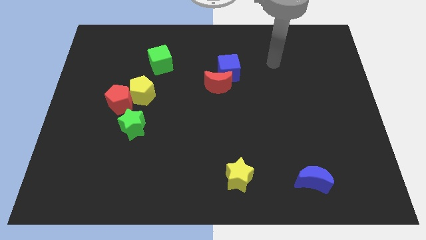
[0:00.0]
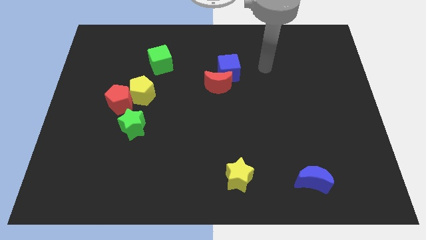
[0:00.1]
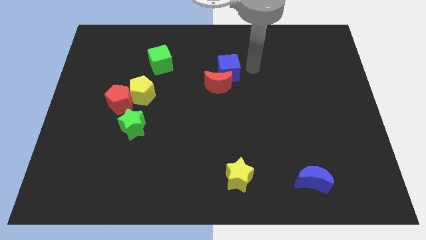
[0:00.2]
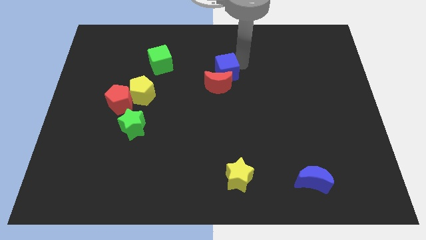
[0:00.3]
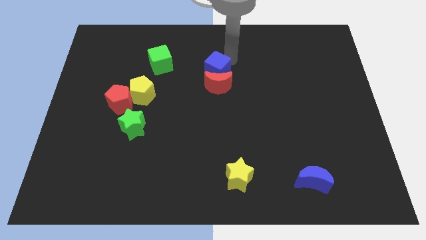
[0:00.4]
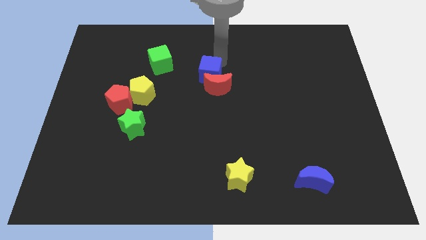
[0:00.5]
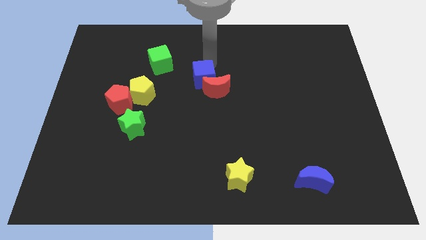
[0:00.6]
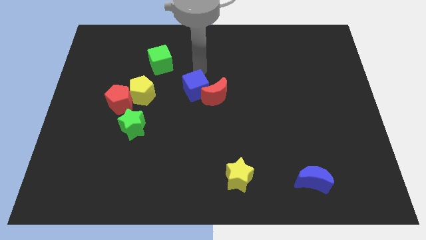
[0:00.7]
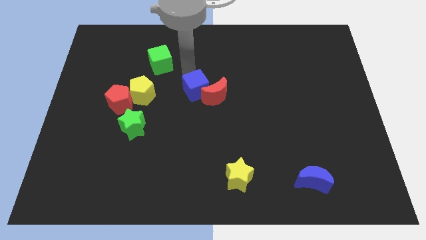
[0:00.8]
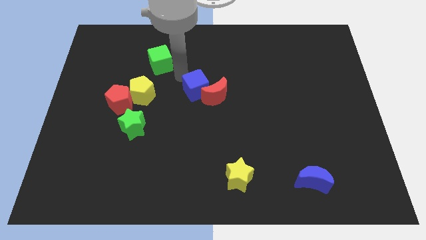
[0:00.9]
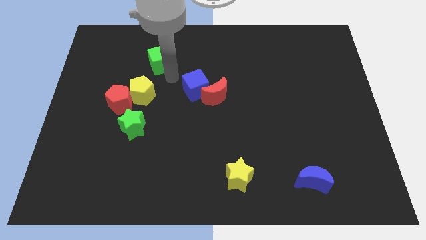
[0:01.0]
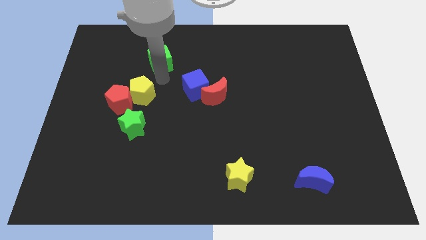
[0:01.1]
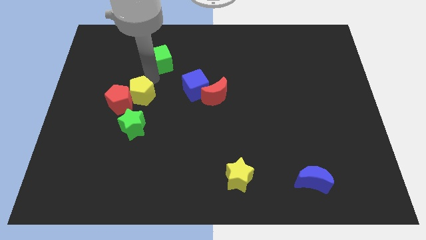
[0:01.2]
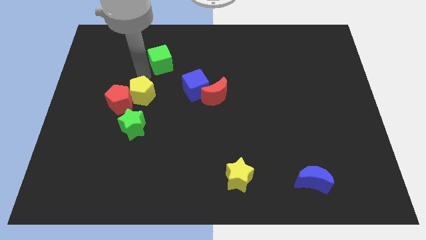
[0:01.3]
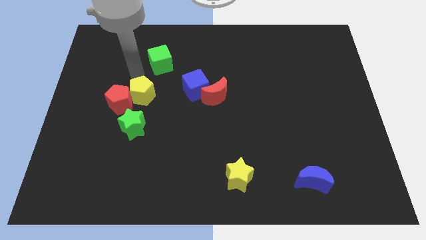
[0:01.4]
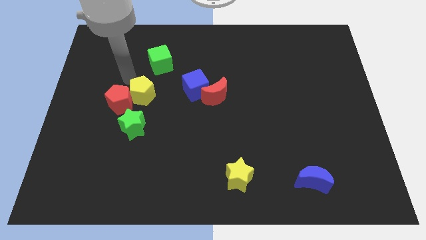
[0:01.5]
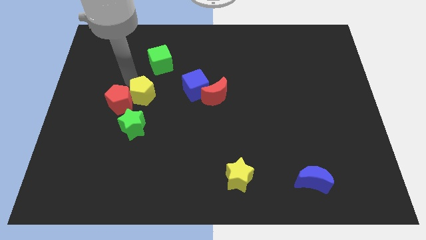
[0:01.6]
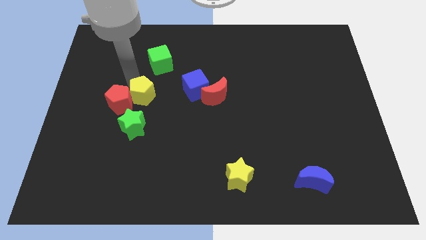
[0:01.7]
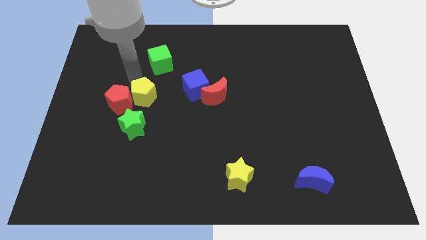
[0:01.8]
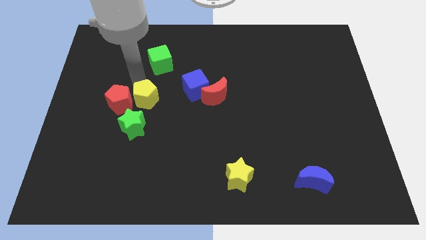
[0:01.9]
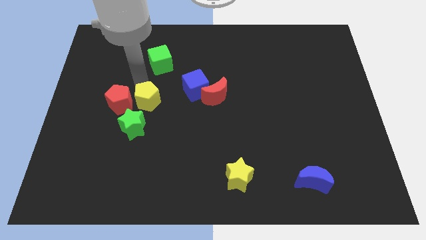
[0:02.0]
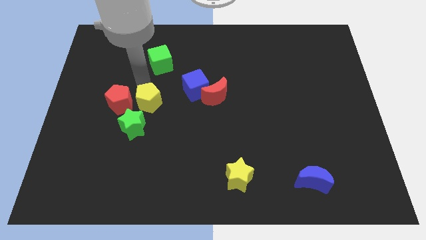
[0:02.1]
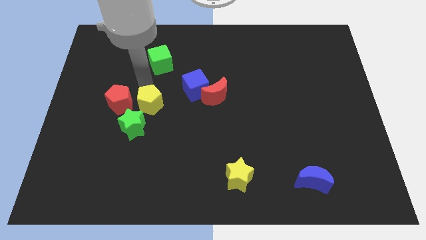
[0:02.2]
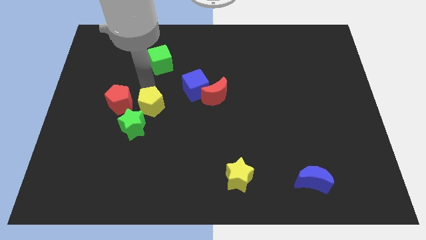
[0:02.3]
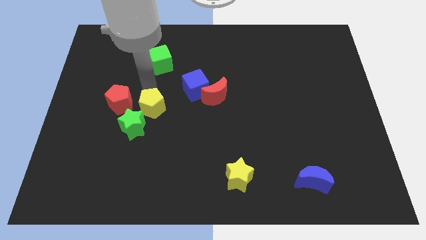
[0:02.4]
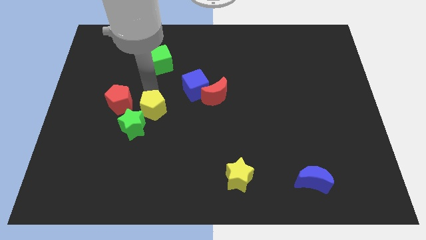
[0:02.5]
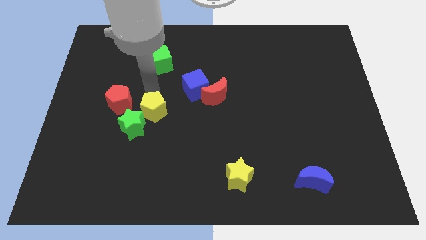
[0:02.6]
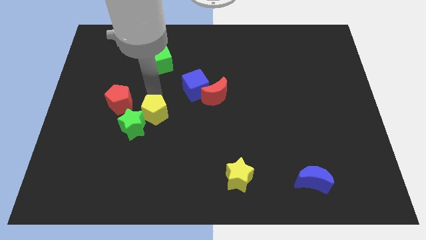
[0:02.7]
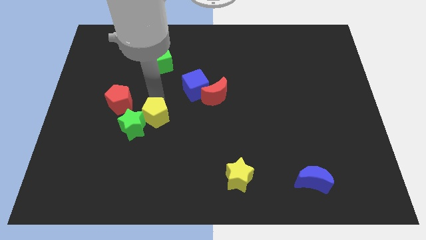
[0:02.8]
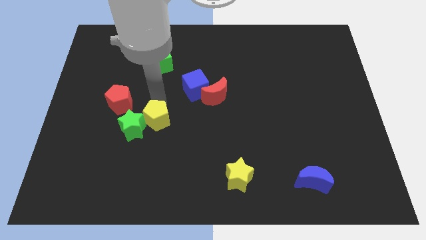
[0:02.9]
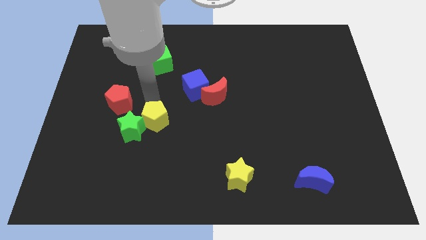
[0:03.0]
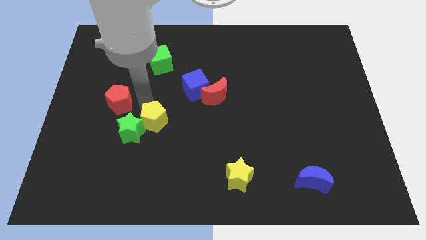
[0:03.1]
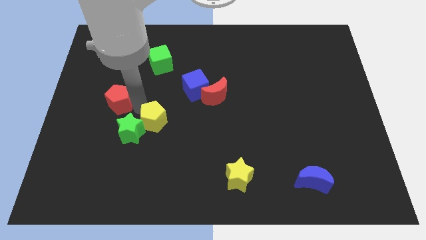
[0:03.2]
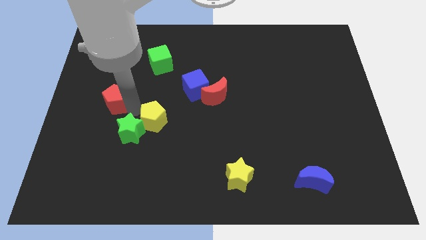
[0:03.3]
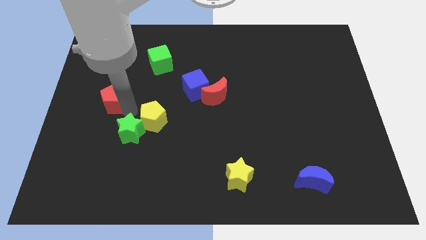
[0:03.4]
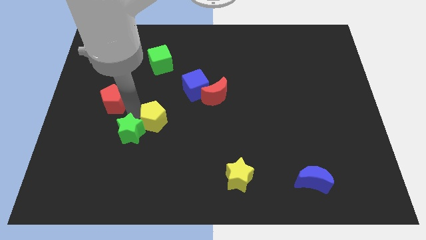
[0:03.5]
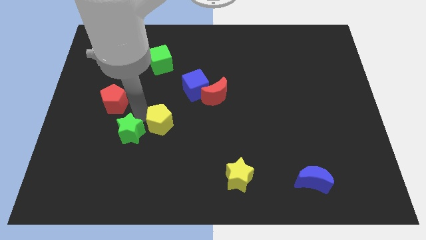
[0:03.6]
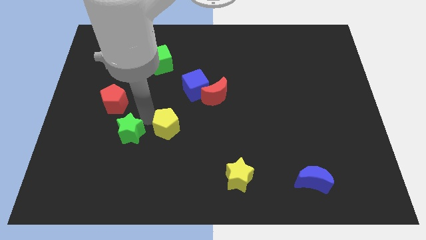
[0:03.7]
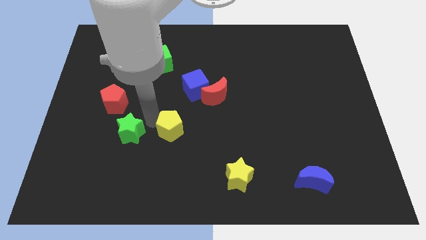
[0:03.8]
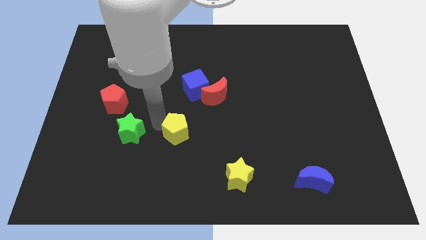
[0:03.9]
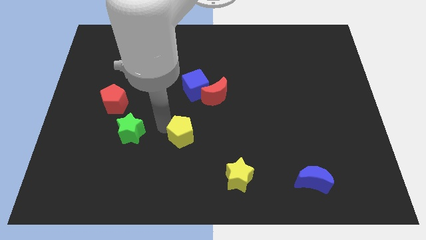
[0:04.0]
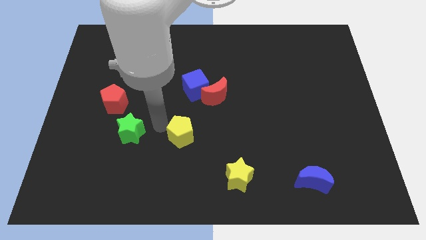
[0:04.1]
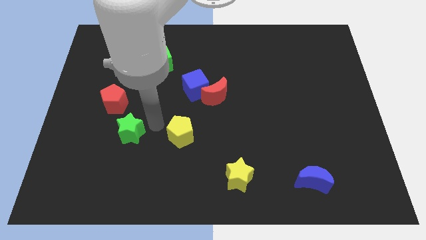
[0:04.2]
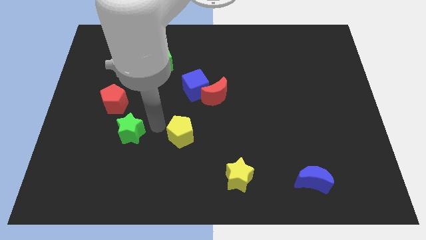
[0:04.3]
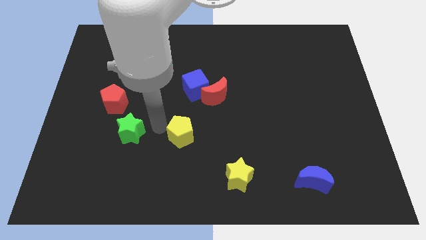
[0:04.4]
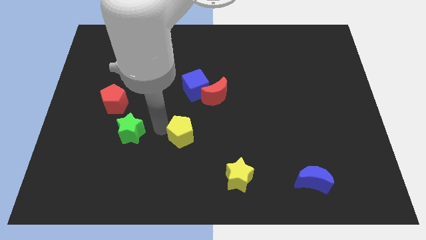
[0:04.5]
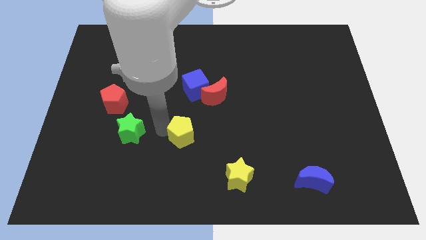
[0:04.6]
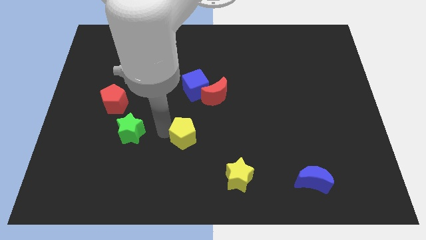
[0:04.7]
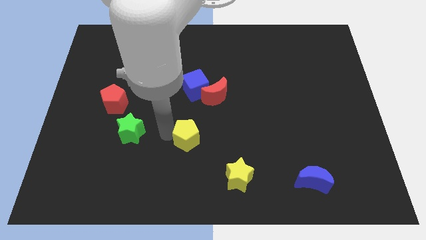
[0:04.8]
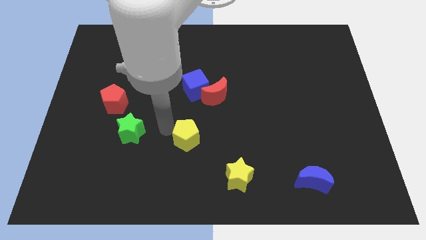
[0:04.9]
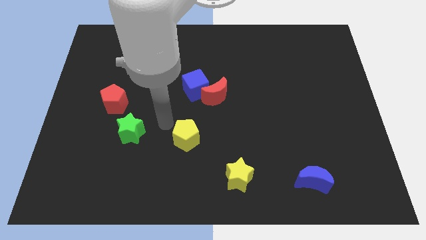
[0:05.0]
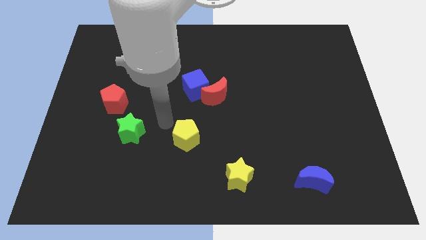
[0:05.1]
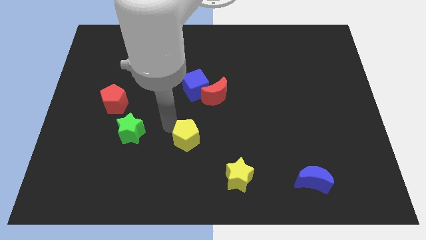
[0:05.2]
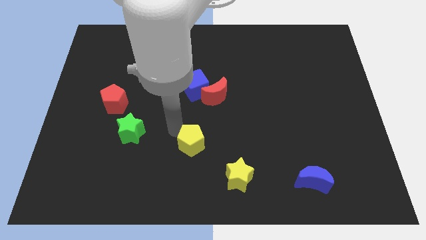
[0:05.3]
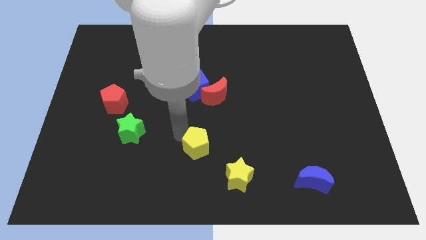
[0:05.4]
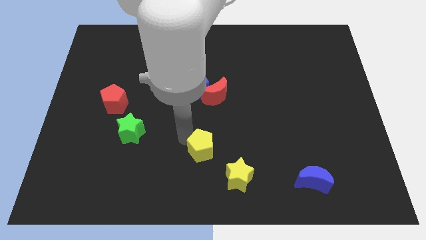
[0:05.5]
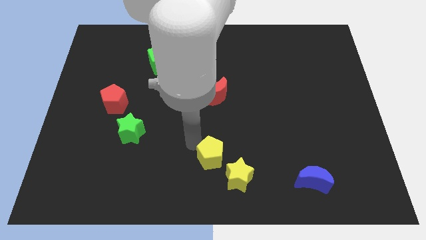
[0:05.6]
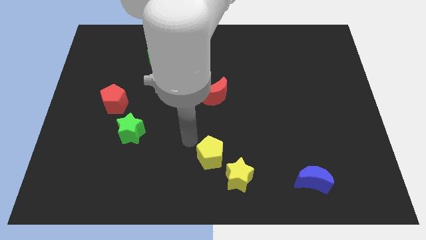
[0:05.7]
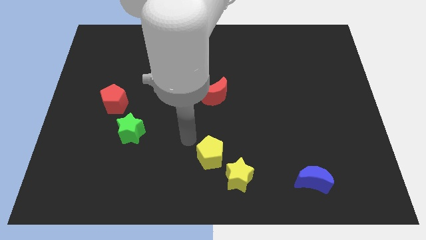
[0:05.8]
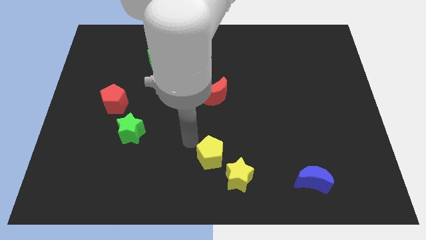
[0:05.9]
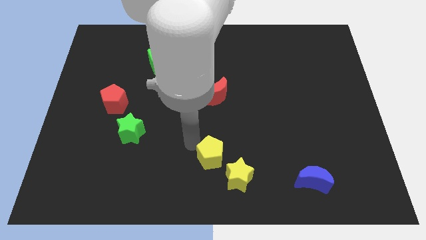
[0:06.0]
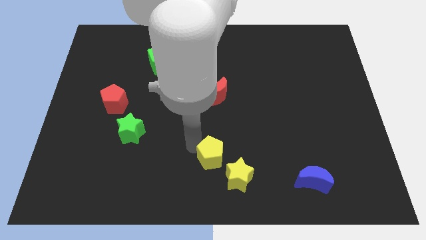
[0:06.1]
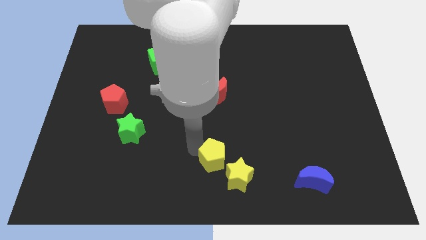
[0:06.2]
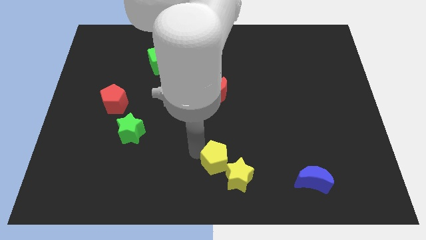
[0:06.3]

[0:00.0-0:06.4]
put the yellow pentagon close to the yellow star

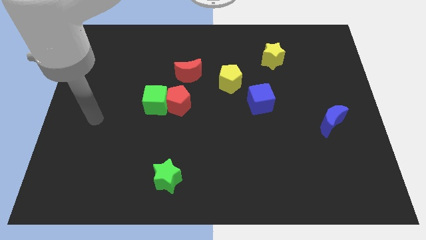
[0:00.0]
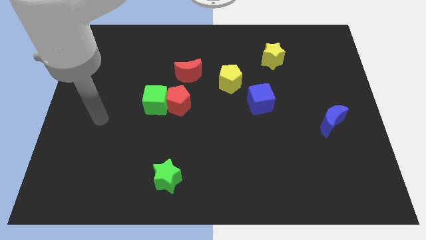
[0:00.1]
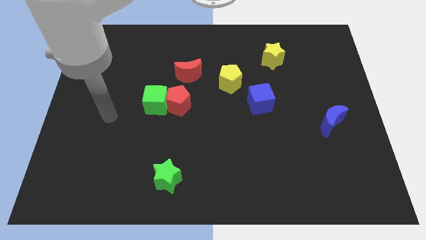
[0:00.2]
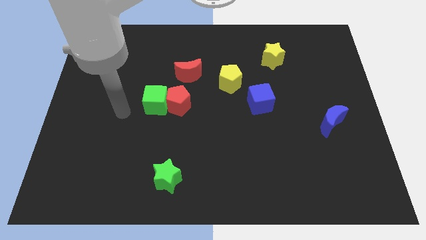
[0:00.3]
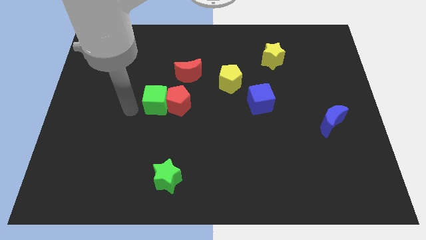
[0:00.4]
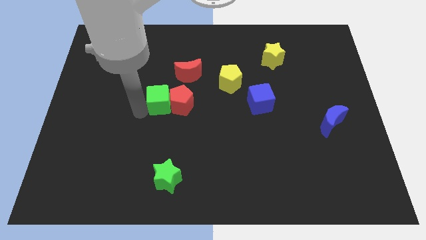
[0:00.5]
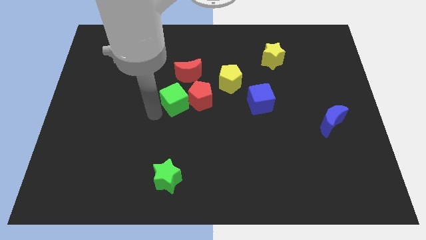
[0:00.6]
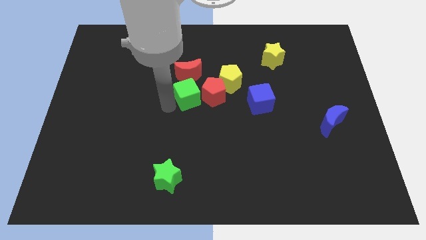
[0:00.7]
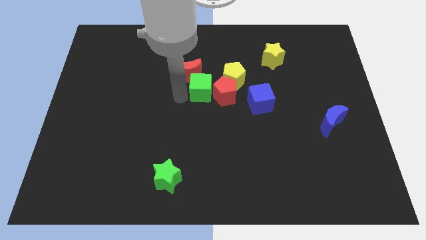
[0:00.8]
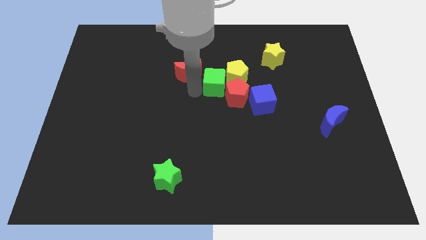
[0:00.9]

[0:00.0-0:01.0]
put the red pentagon next to the blue cube
